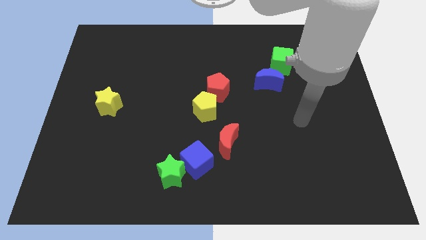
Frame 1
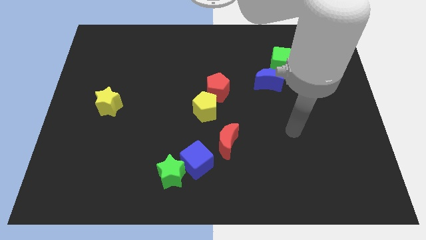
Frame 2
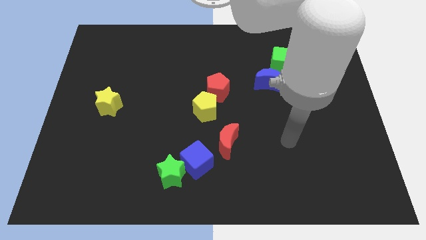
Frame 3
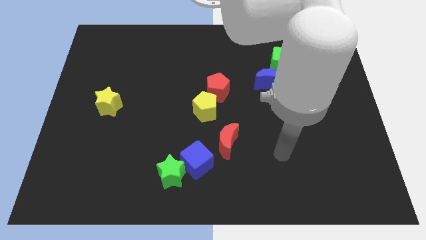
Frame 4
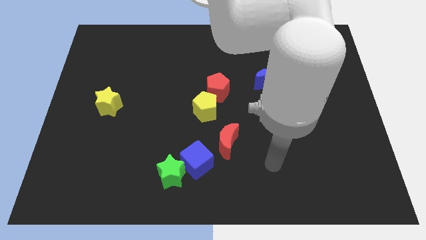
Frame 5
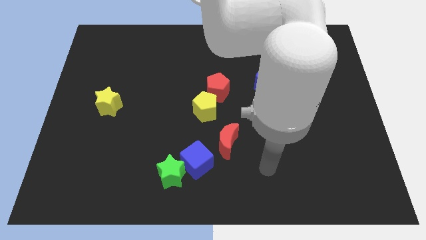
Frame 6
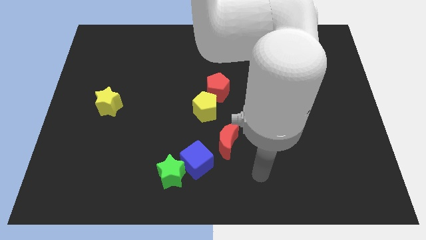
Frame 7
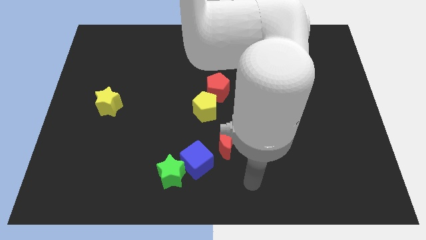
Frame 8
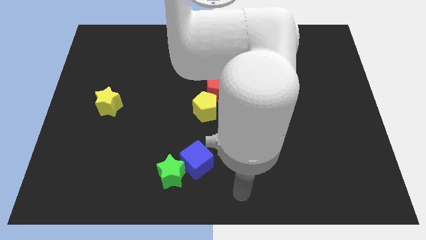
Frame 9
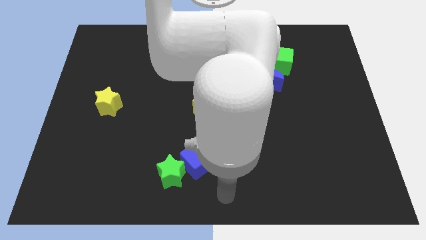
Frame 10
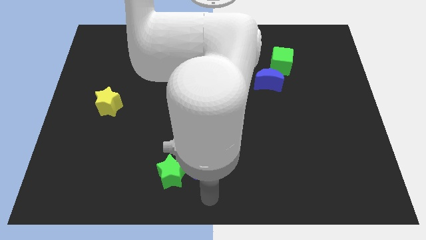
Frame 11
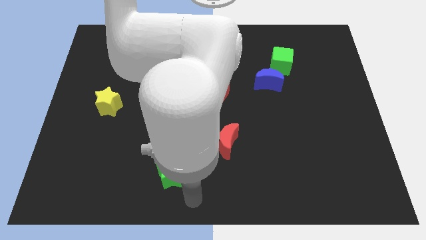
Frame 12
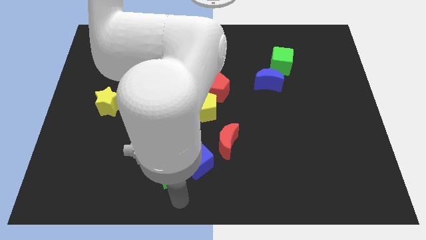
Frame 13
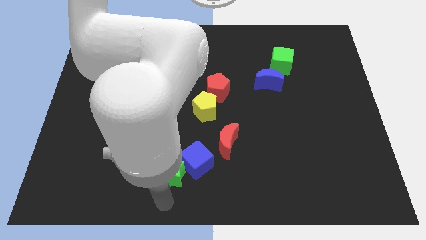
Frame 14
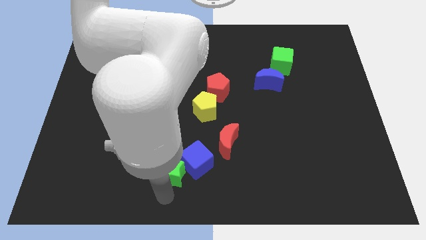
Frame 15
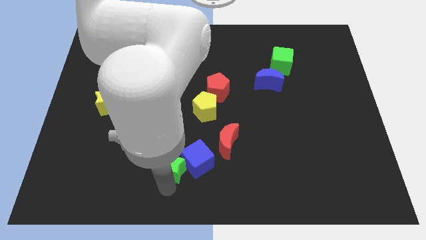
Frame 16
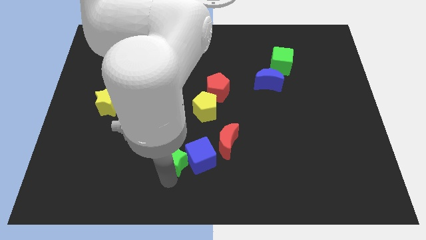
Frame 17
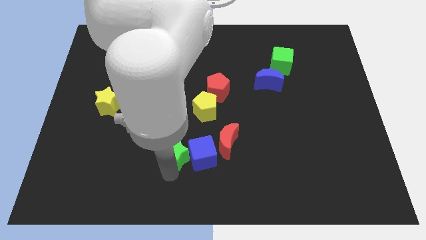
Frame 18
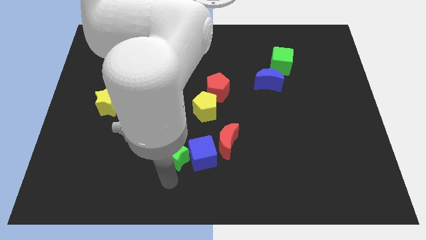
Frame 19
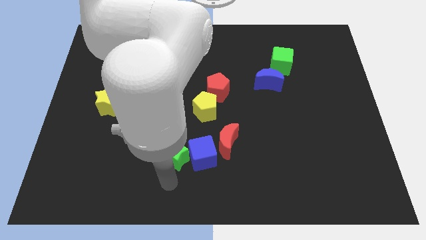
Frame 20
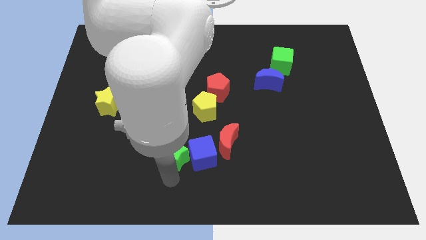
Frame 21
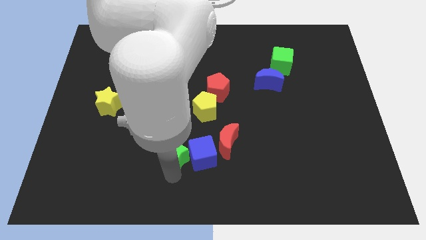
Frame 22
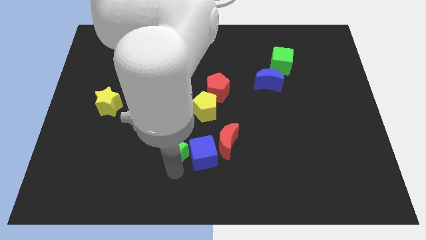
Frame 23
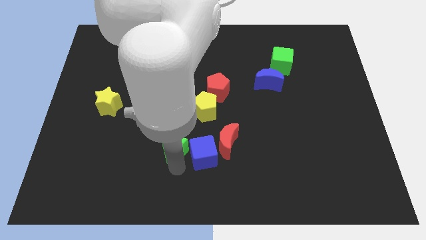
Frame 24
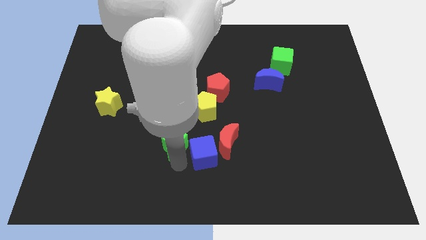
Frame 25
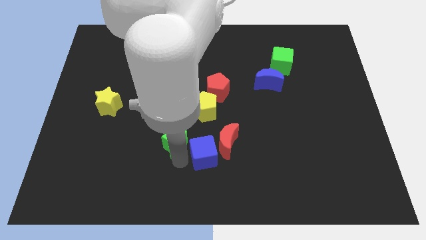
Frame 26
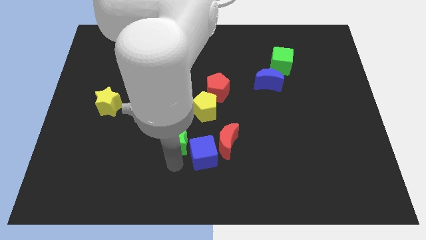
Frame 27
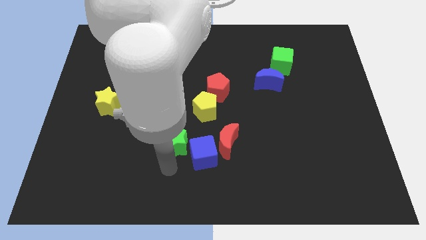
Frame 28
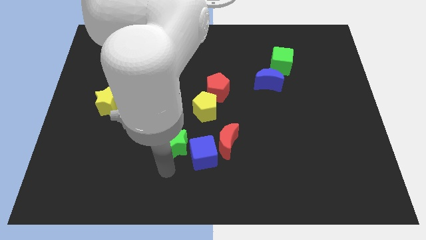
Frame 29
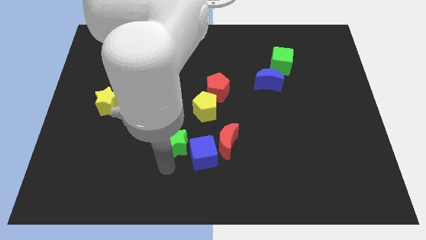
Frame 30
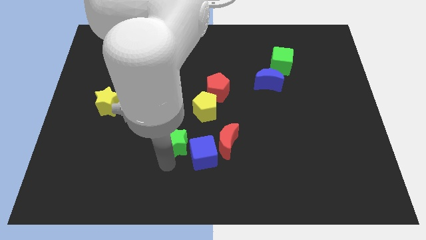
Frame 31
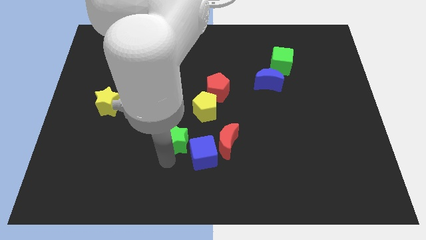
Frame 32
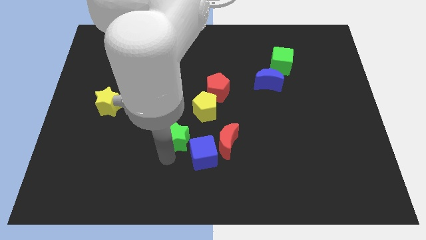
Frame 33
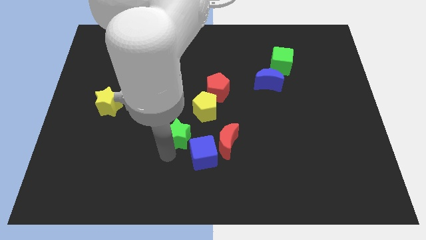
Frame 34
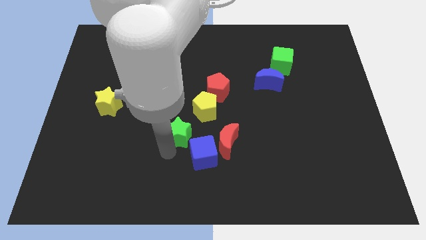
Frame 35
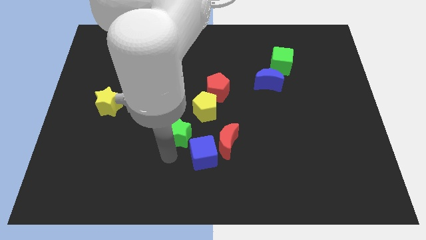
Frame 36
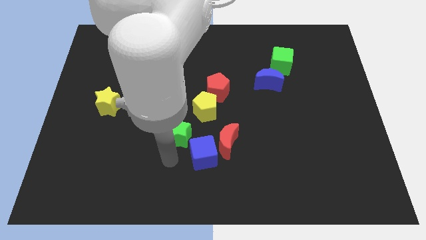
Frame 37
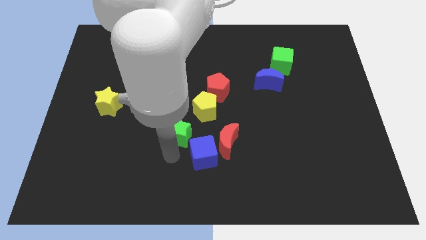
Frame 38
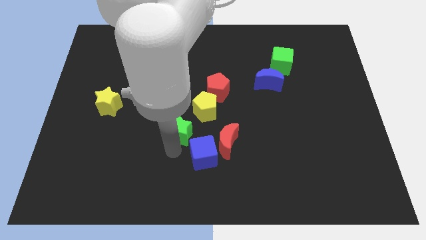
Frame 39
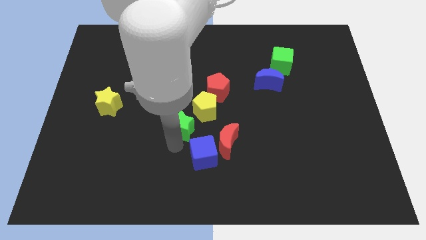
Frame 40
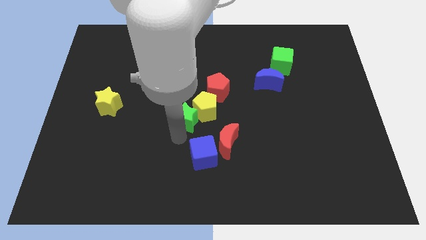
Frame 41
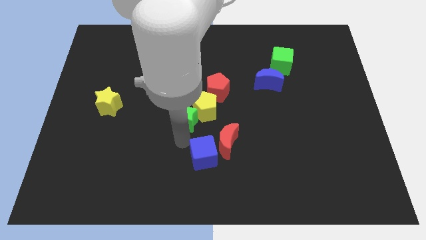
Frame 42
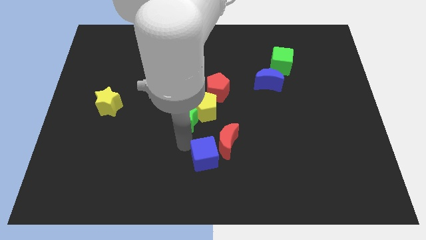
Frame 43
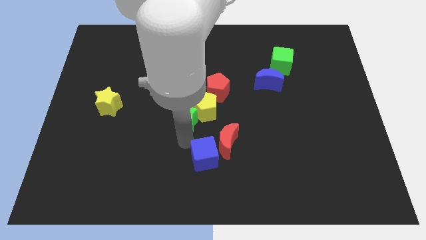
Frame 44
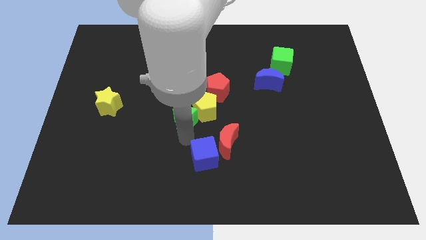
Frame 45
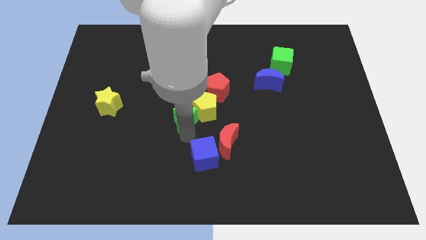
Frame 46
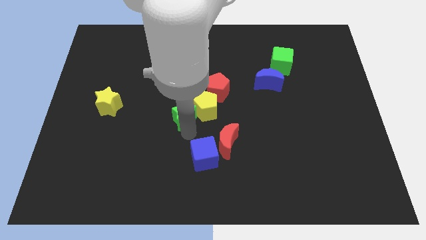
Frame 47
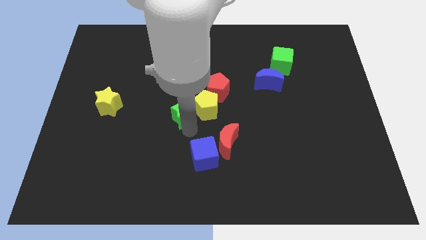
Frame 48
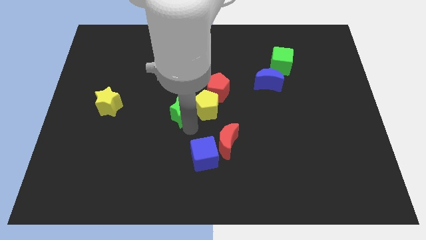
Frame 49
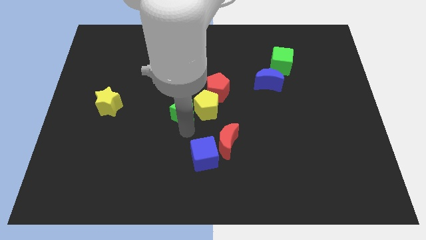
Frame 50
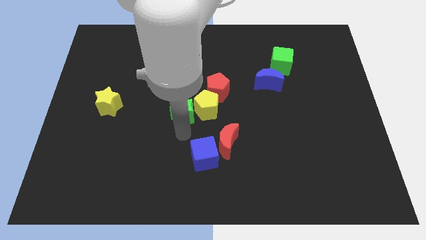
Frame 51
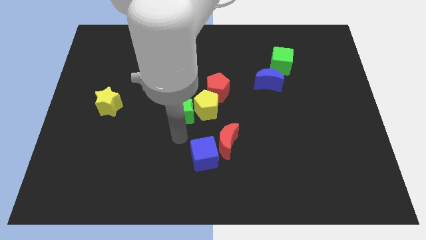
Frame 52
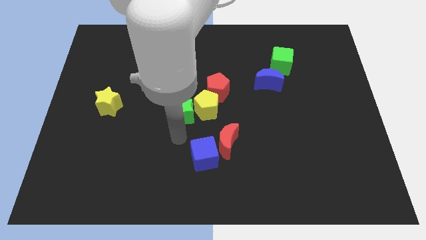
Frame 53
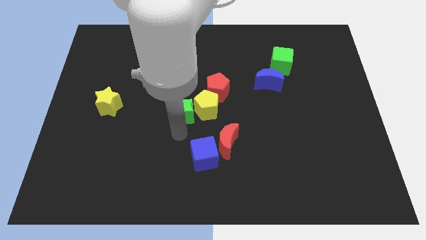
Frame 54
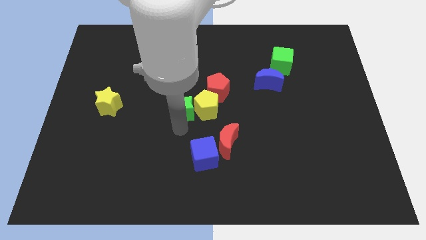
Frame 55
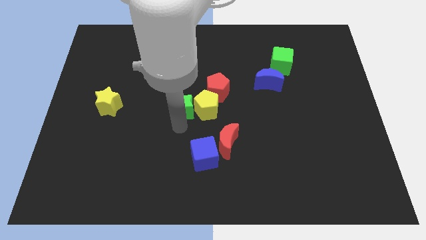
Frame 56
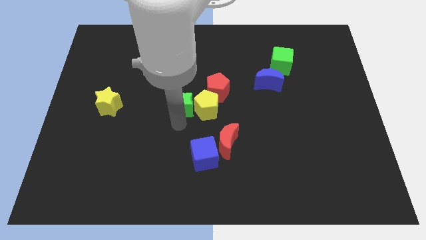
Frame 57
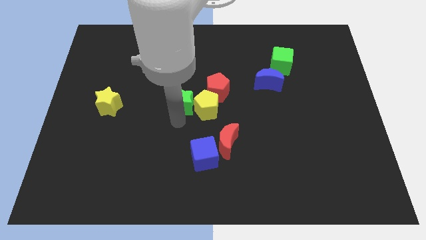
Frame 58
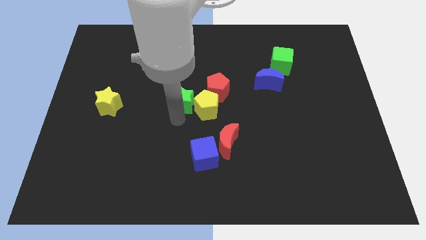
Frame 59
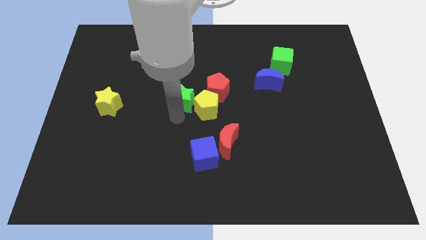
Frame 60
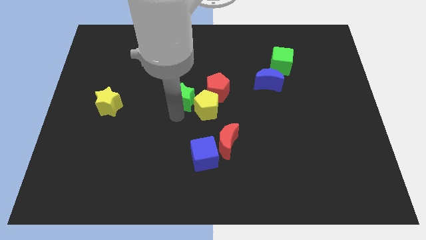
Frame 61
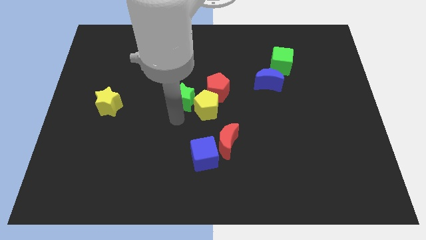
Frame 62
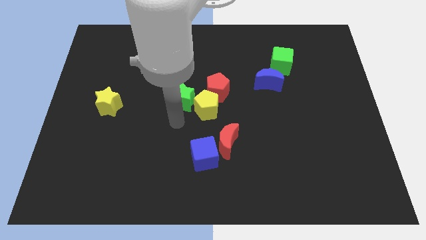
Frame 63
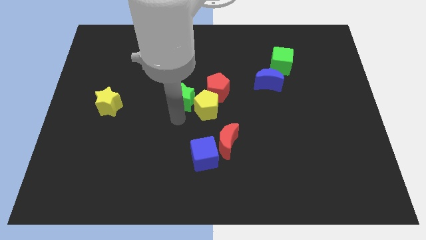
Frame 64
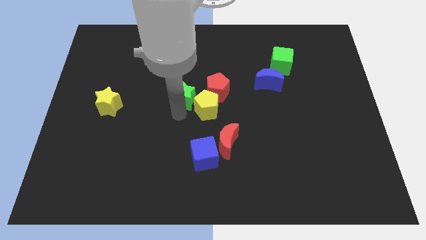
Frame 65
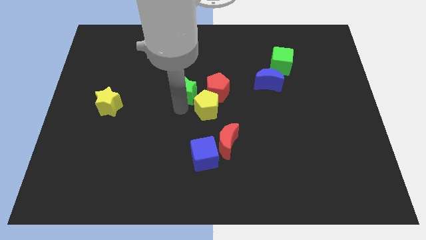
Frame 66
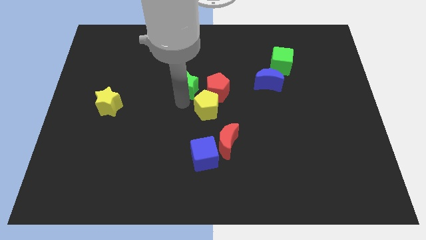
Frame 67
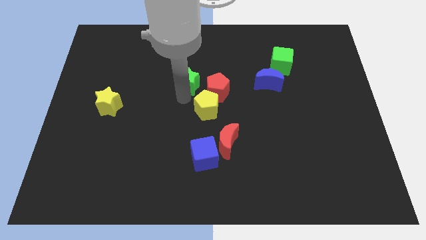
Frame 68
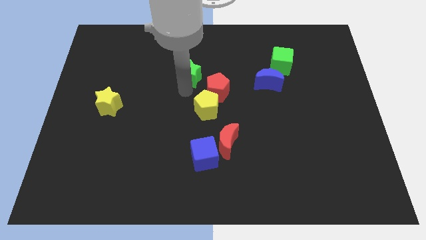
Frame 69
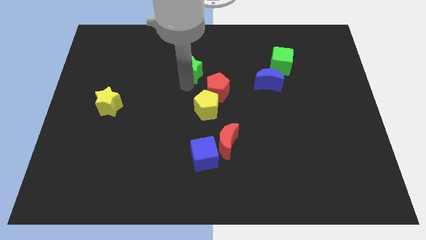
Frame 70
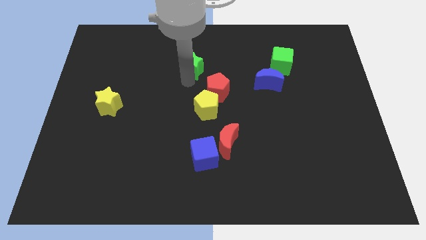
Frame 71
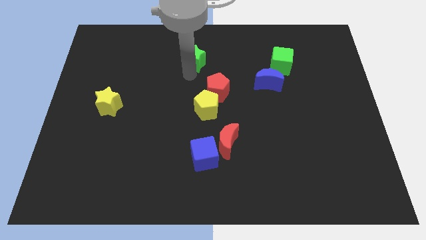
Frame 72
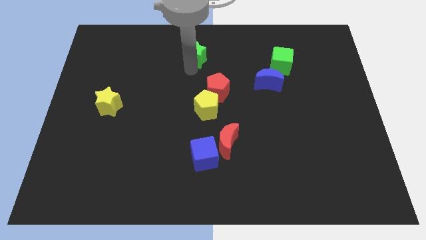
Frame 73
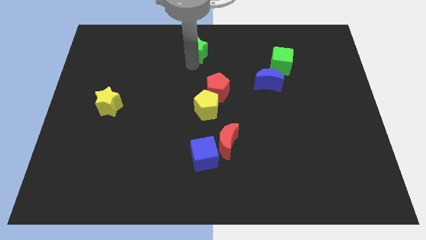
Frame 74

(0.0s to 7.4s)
push the green star to the top side
